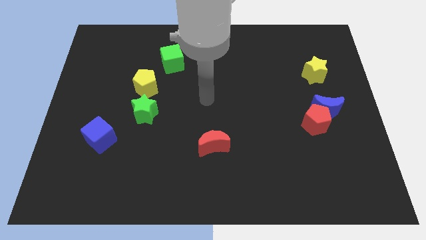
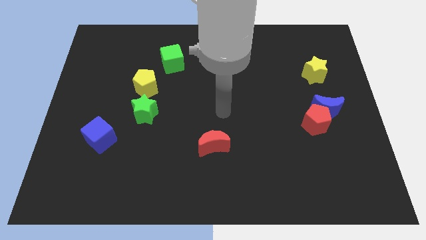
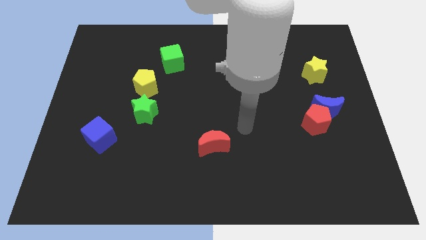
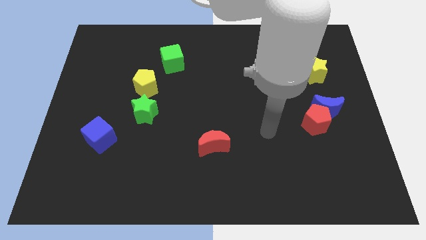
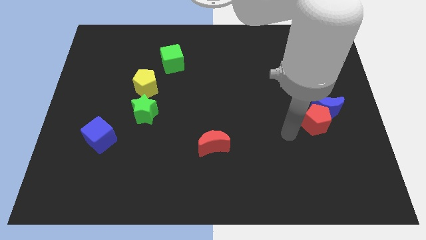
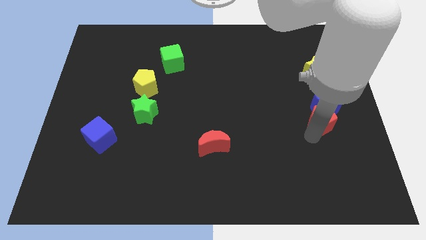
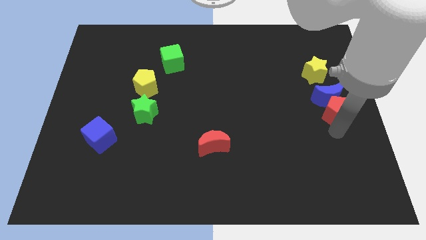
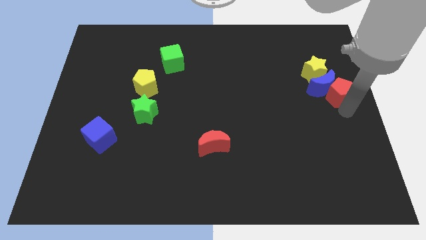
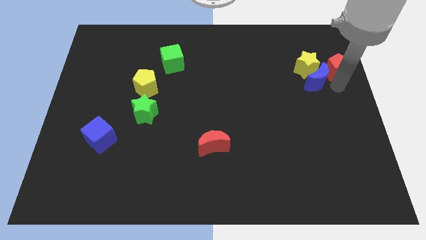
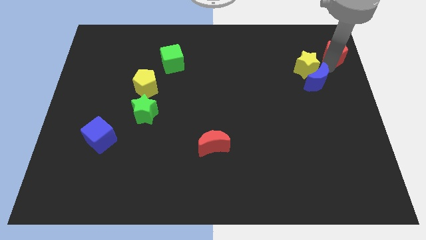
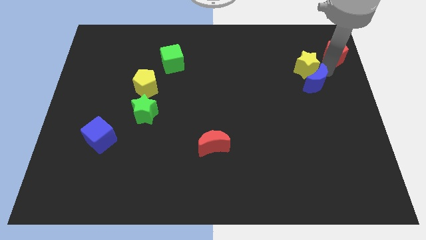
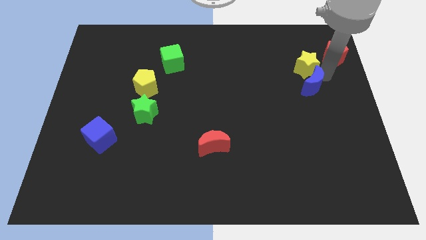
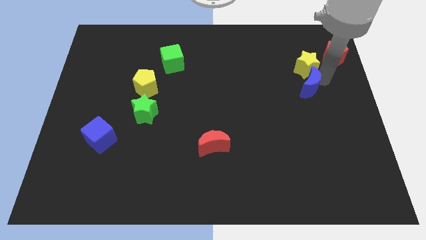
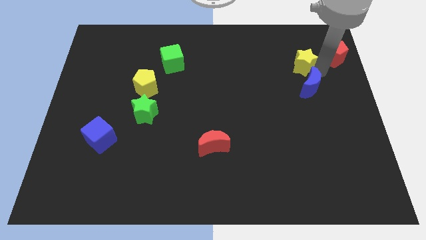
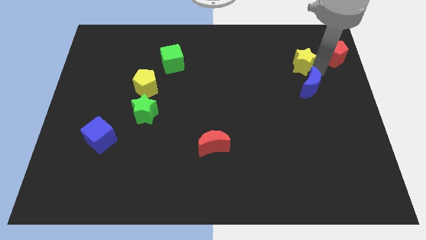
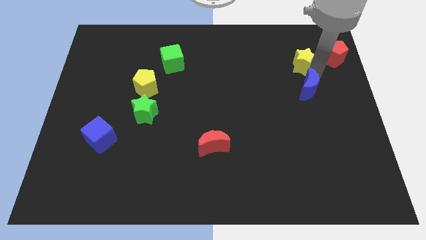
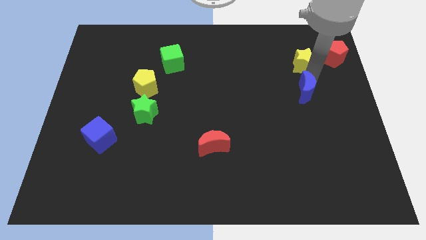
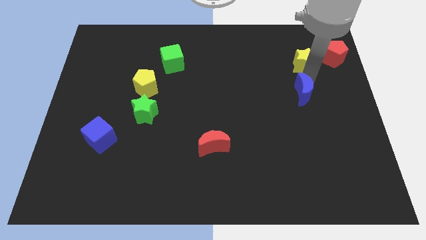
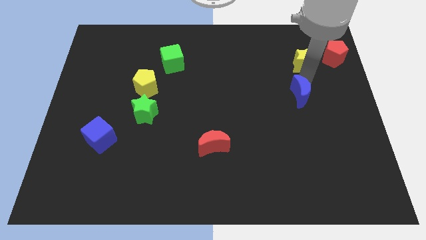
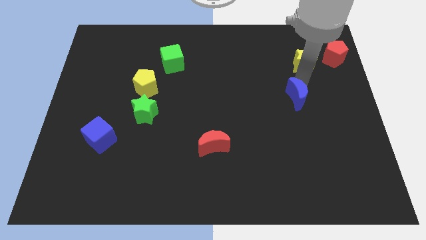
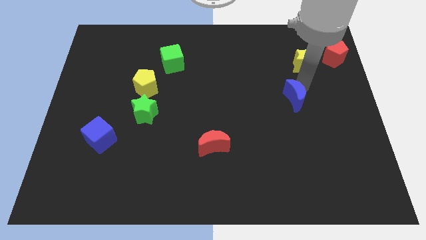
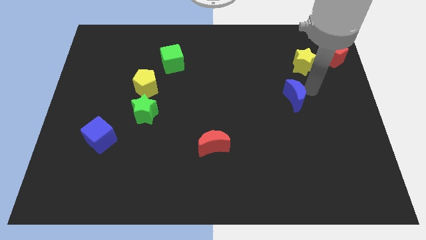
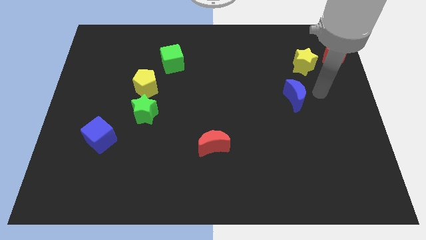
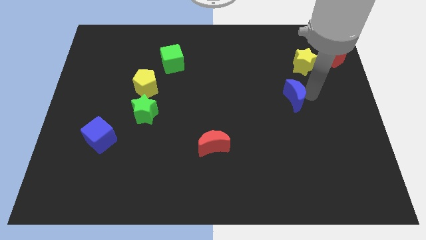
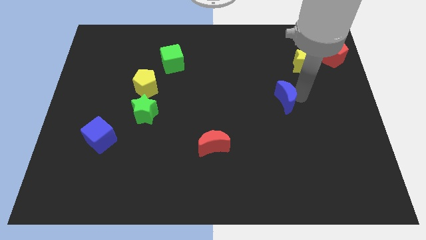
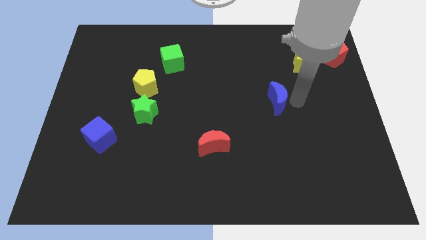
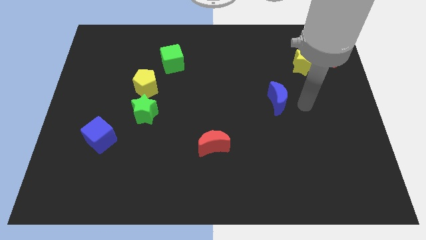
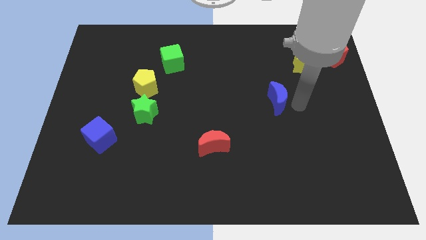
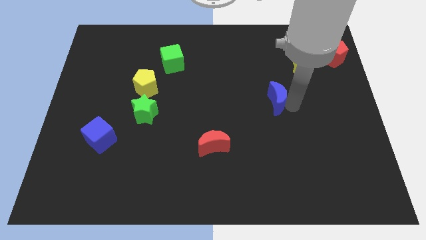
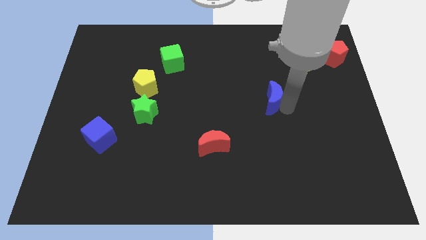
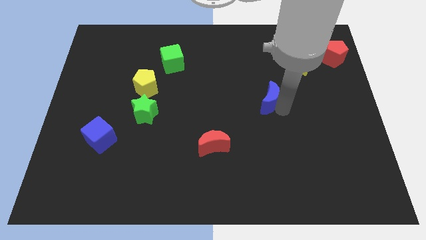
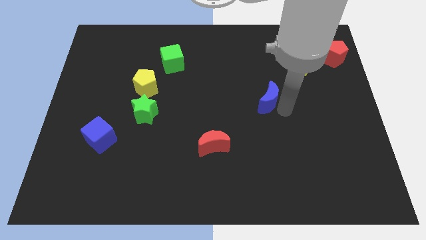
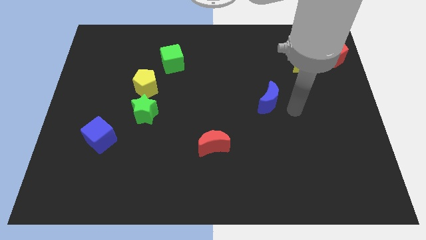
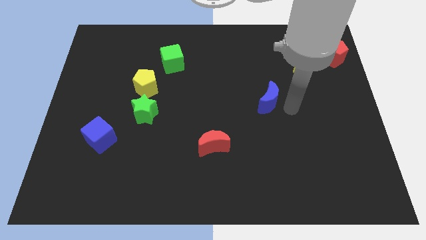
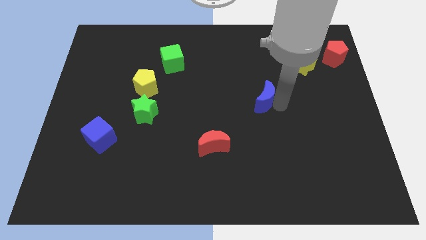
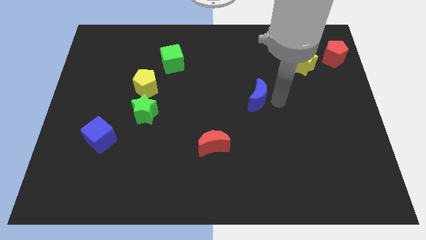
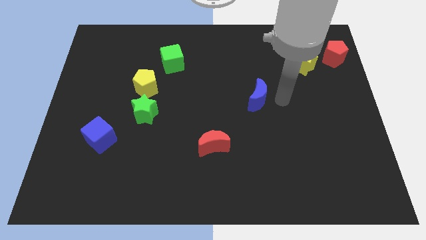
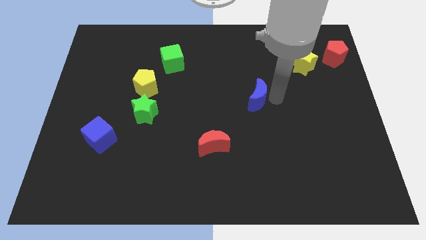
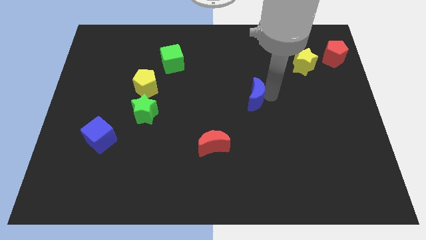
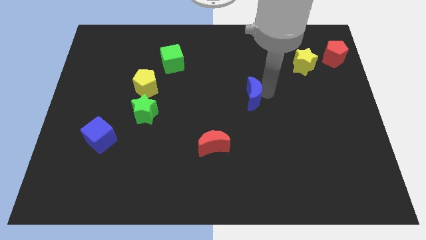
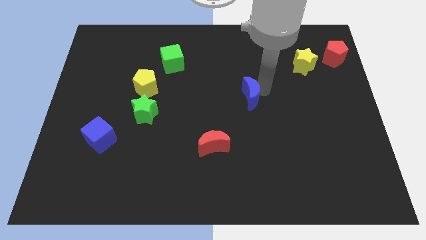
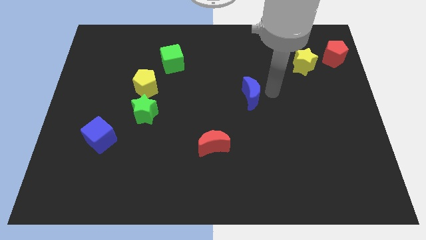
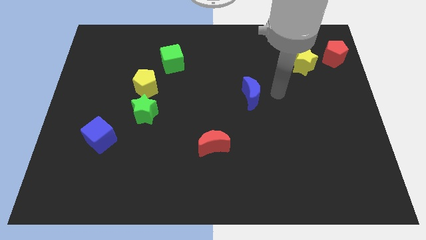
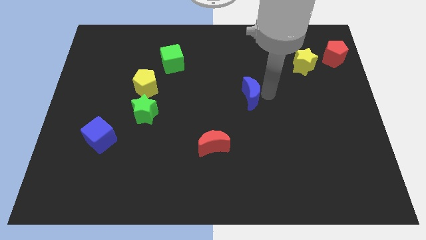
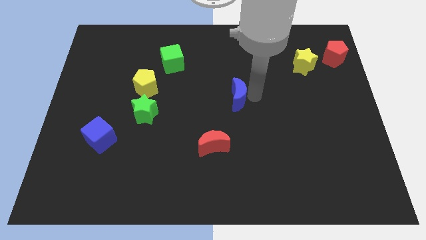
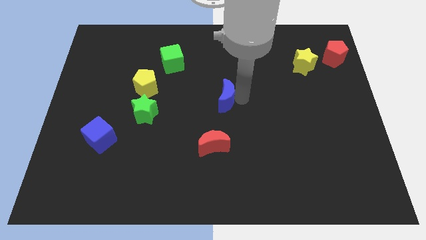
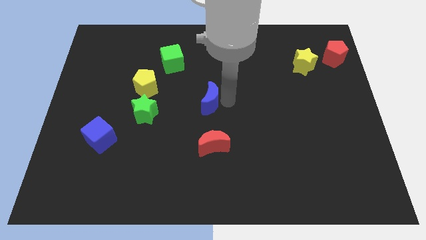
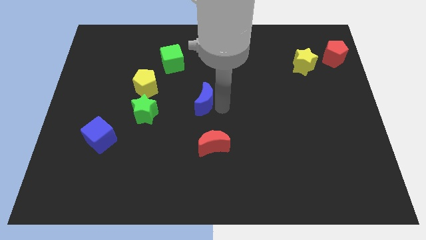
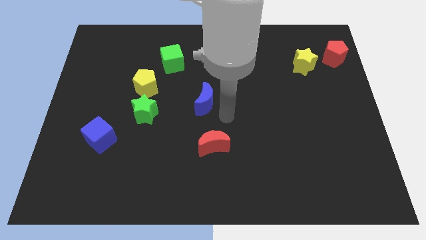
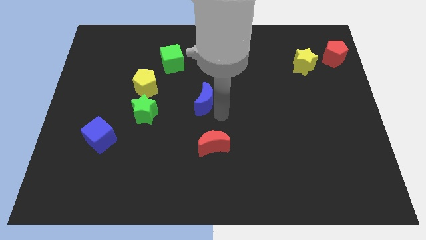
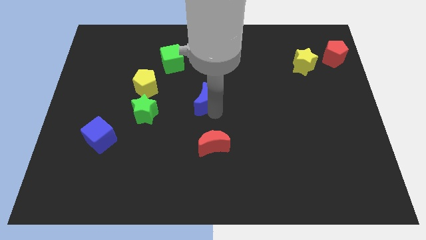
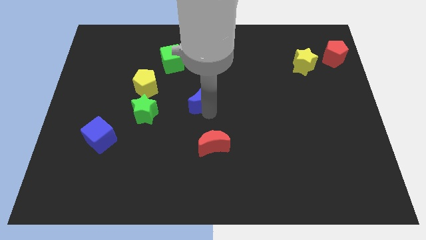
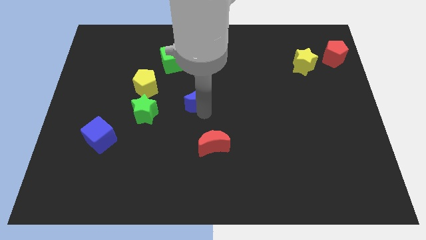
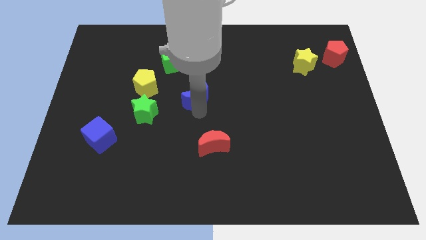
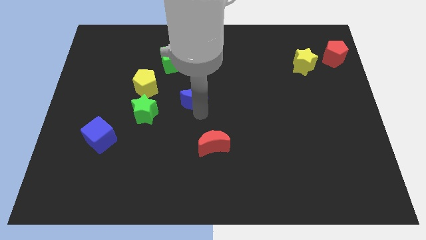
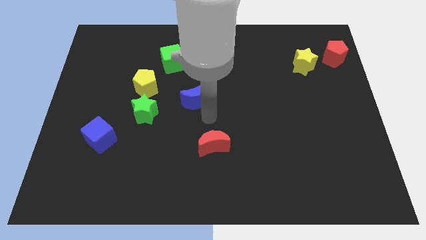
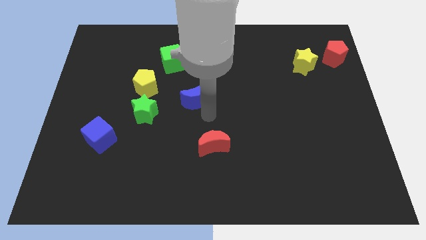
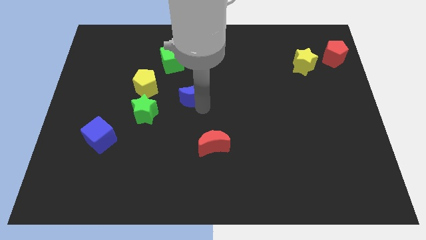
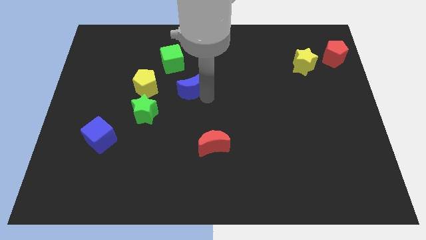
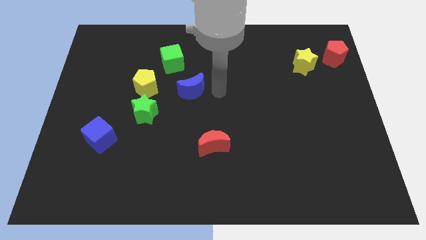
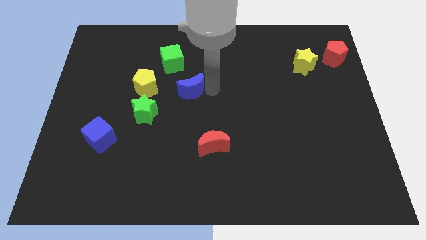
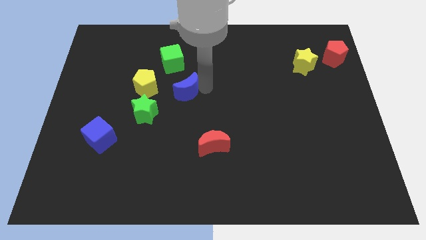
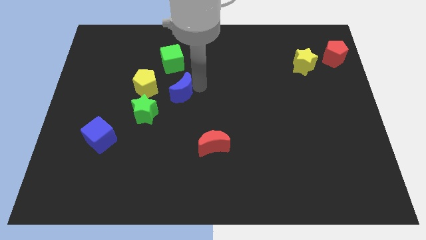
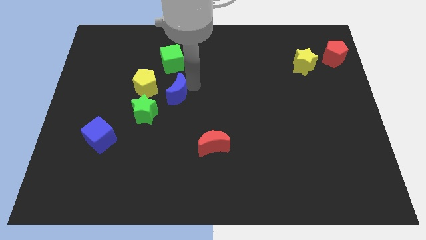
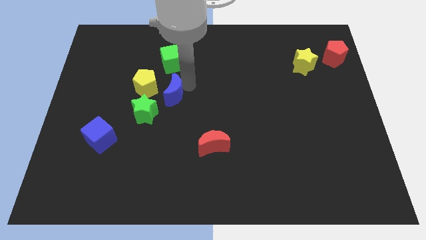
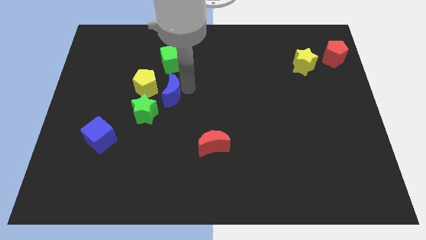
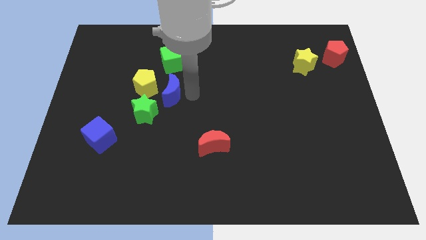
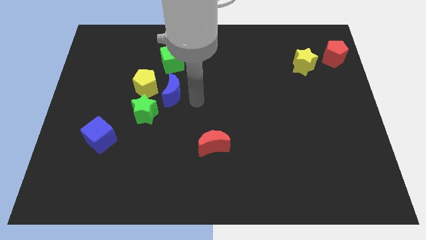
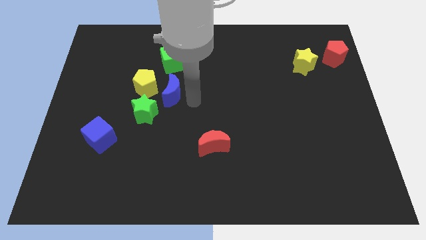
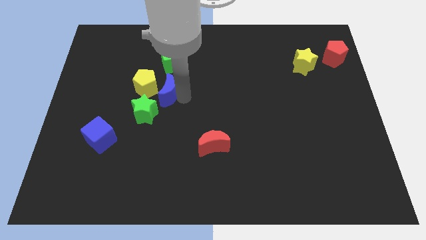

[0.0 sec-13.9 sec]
push the blue moon close to the yellow pentagon
